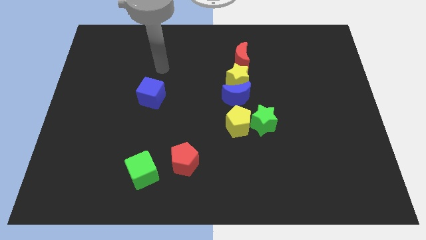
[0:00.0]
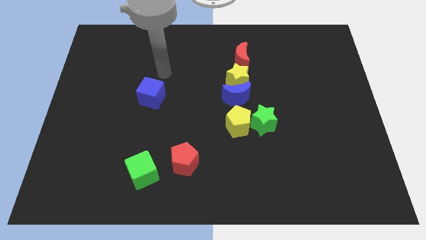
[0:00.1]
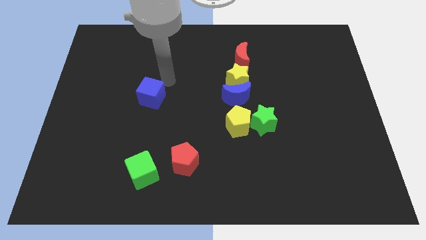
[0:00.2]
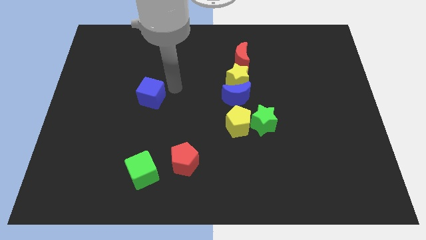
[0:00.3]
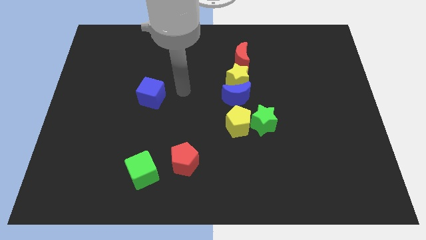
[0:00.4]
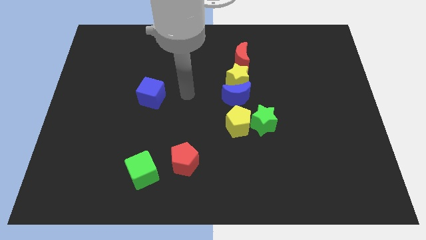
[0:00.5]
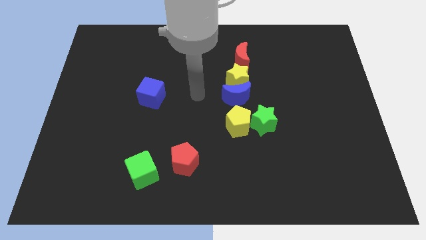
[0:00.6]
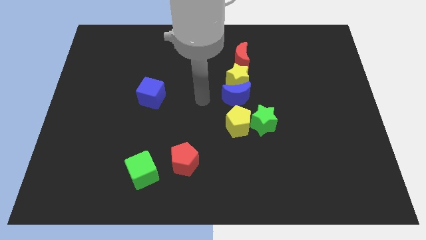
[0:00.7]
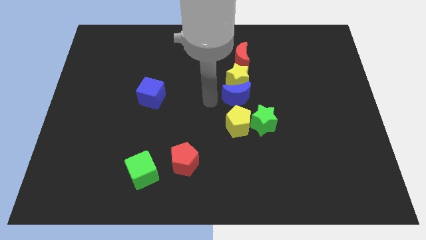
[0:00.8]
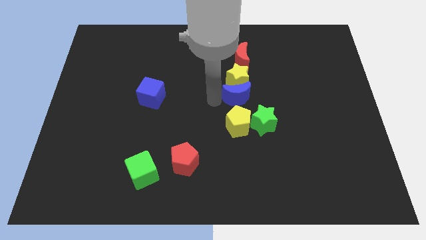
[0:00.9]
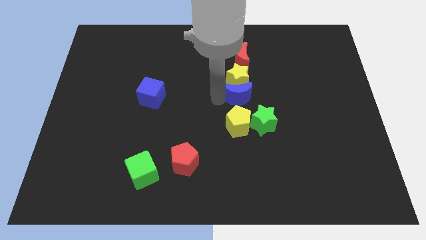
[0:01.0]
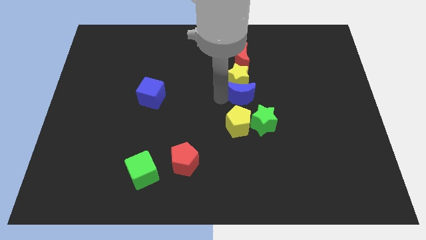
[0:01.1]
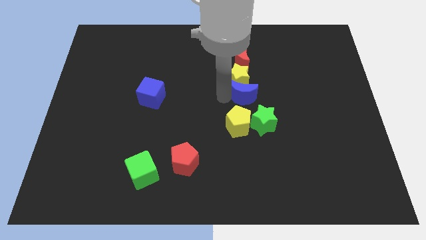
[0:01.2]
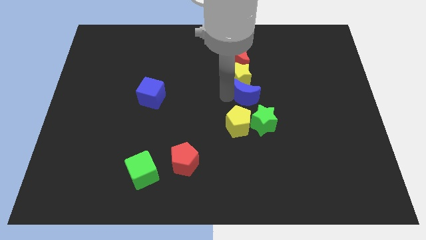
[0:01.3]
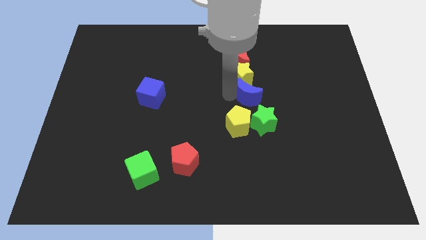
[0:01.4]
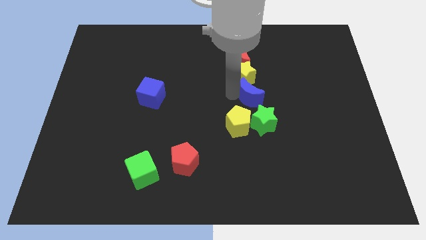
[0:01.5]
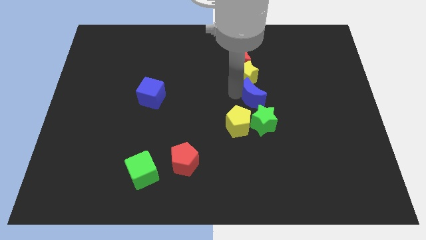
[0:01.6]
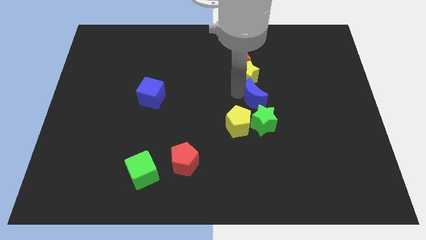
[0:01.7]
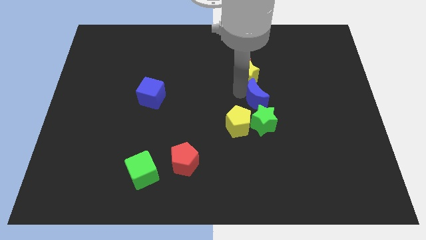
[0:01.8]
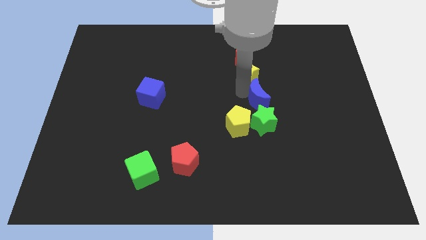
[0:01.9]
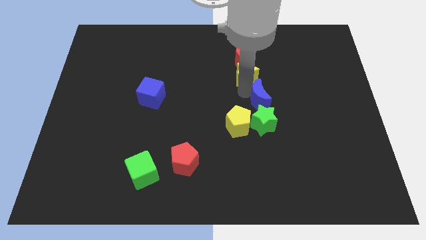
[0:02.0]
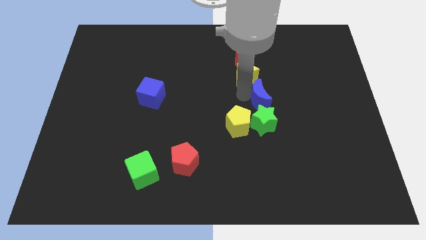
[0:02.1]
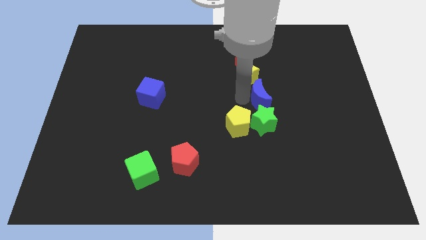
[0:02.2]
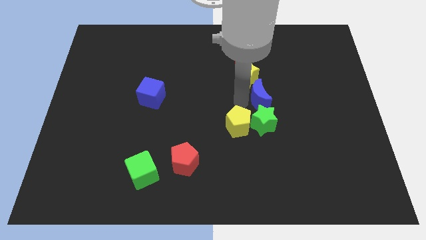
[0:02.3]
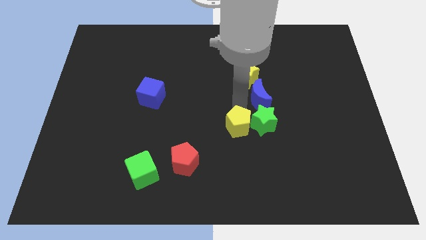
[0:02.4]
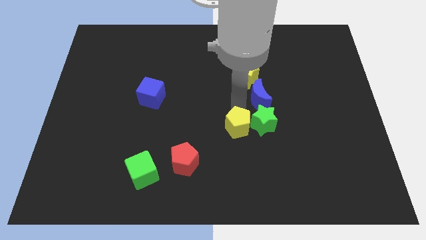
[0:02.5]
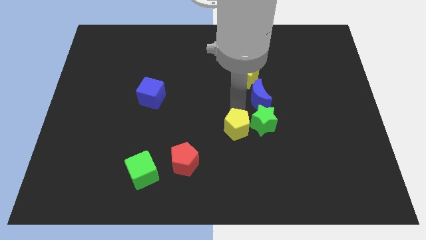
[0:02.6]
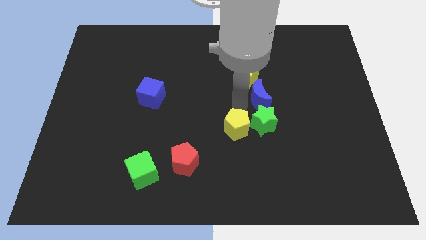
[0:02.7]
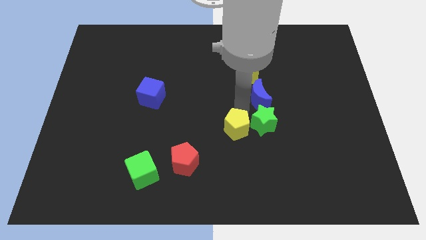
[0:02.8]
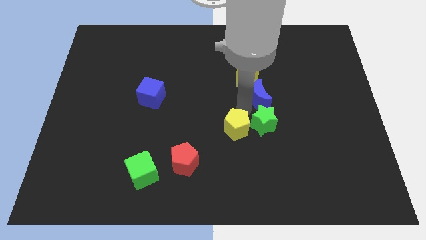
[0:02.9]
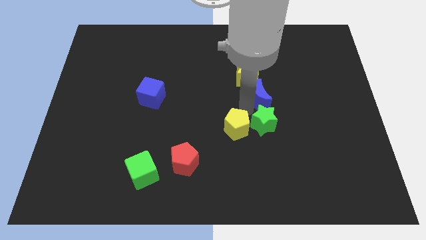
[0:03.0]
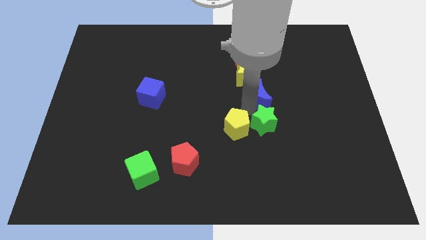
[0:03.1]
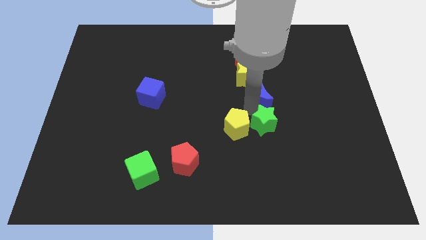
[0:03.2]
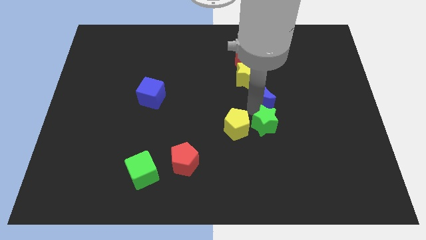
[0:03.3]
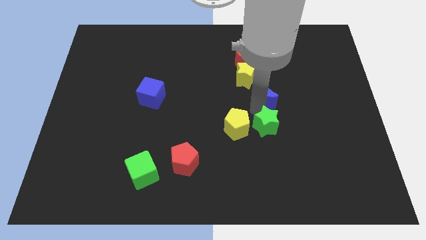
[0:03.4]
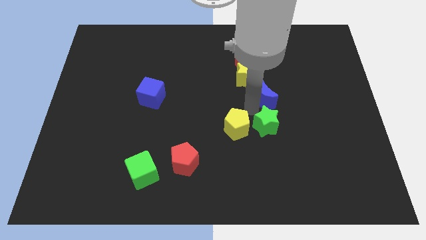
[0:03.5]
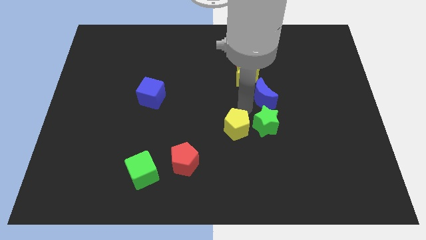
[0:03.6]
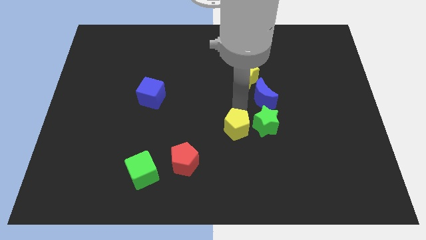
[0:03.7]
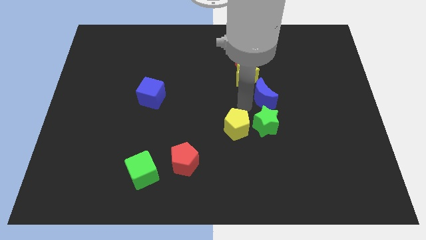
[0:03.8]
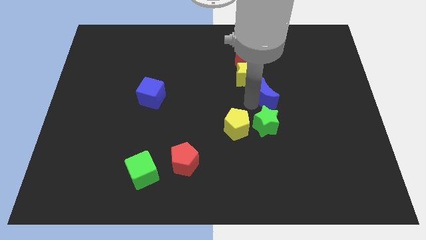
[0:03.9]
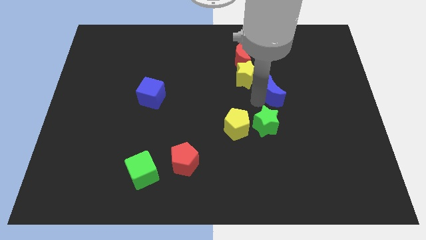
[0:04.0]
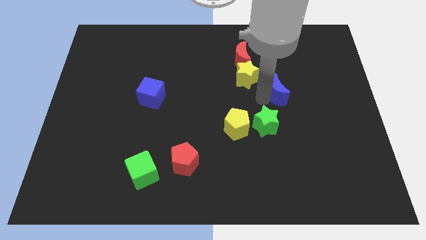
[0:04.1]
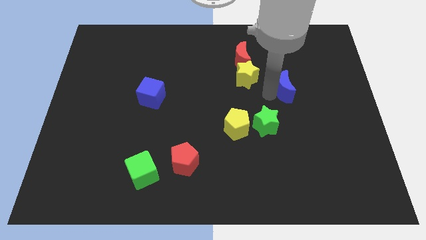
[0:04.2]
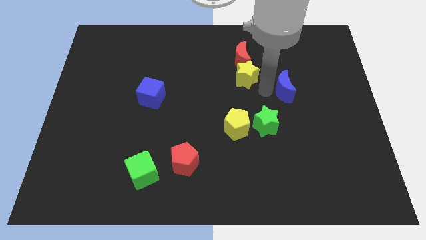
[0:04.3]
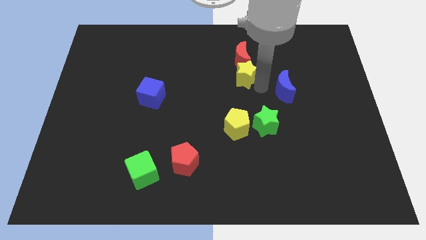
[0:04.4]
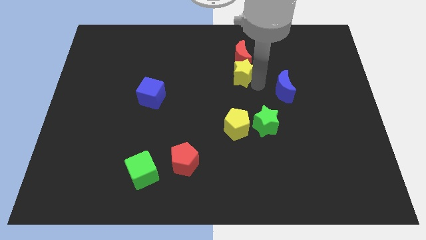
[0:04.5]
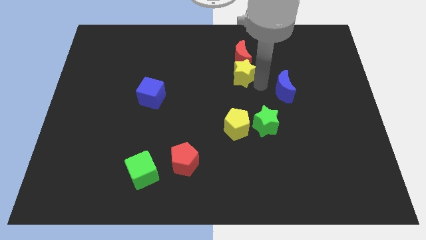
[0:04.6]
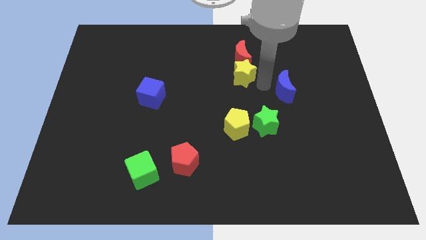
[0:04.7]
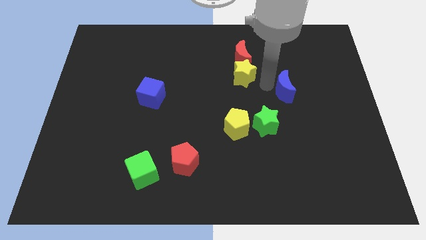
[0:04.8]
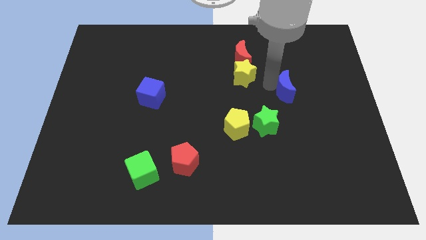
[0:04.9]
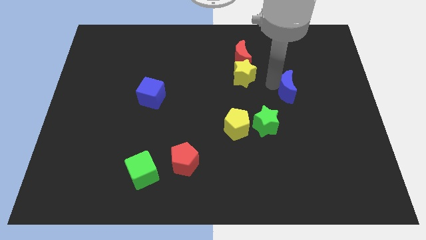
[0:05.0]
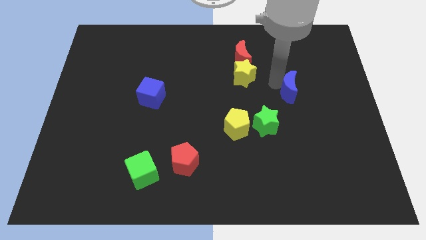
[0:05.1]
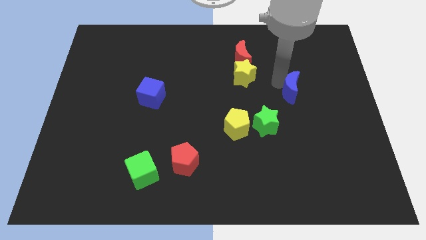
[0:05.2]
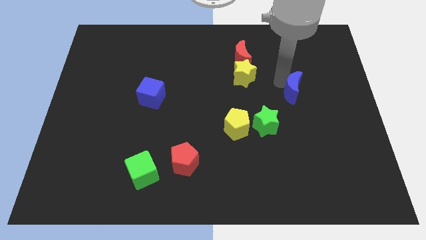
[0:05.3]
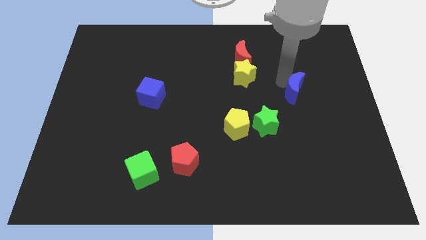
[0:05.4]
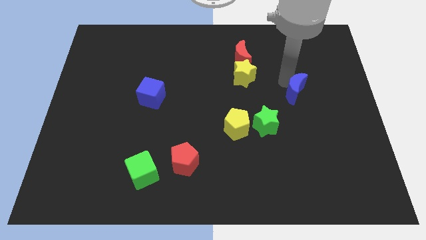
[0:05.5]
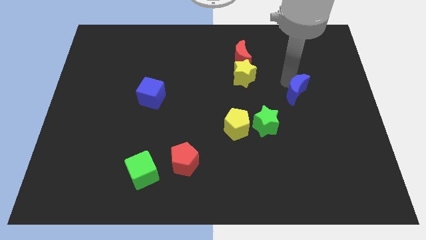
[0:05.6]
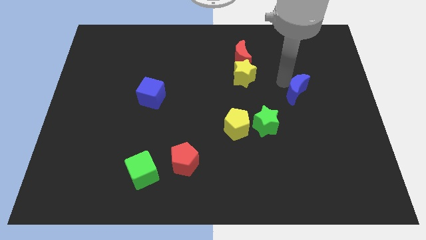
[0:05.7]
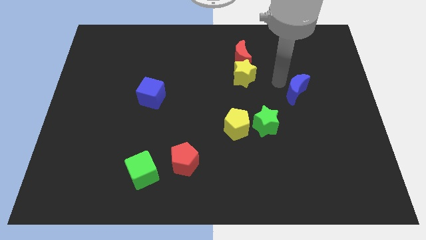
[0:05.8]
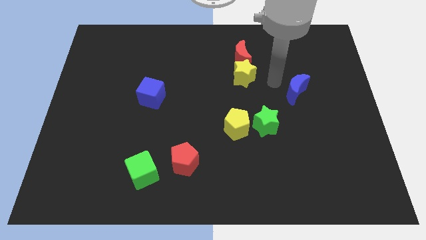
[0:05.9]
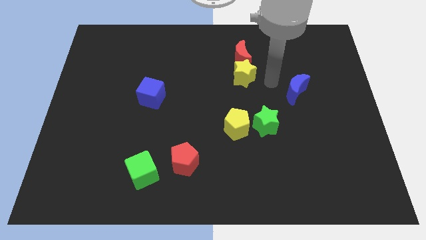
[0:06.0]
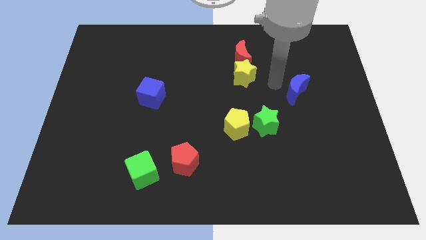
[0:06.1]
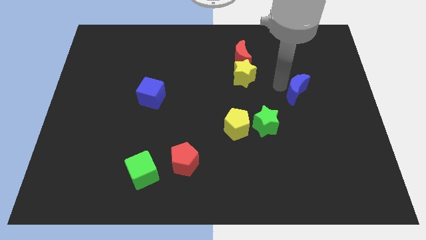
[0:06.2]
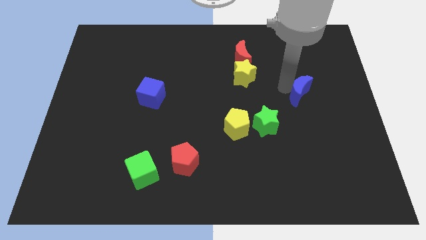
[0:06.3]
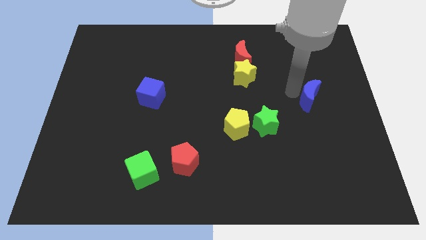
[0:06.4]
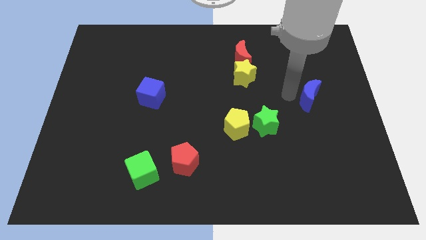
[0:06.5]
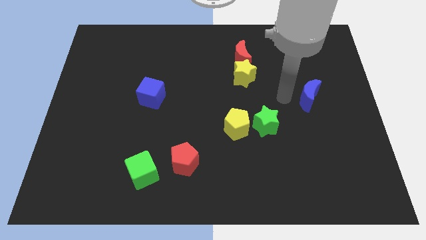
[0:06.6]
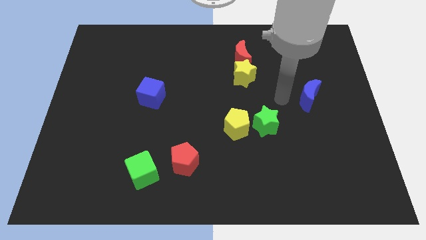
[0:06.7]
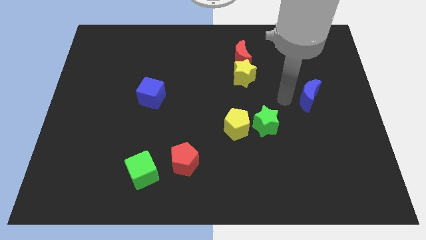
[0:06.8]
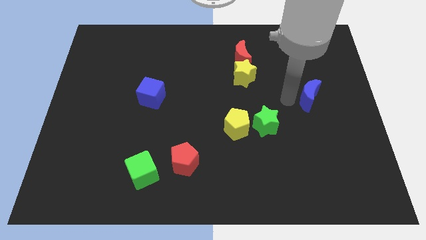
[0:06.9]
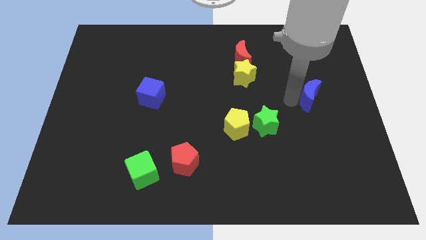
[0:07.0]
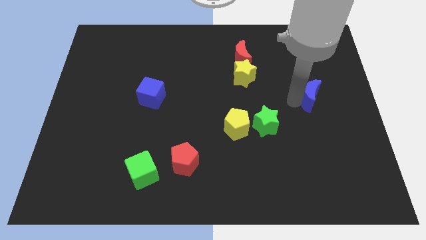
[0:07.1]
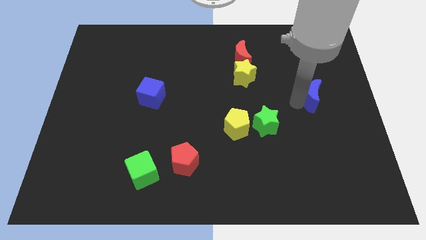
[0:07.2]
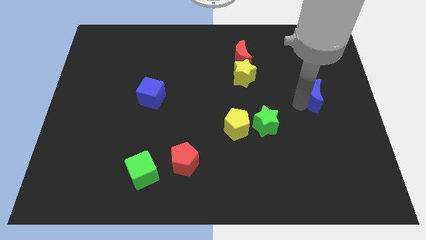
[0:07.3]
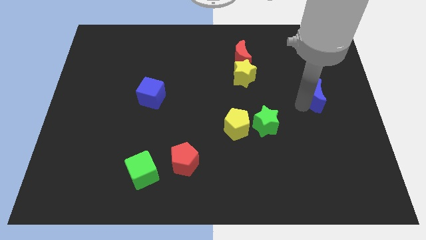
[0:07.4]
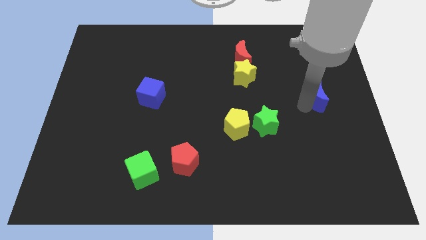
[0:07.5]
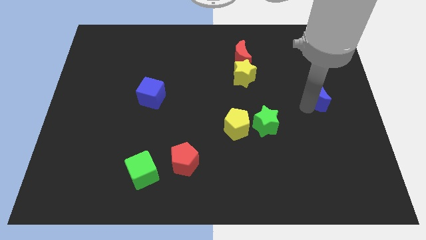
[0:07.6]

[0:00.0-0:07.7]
put the blue moon to the right side of the board
